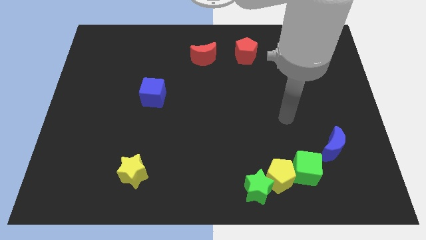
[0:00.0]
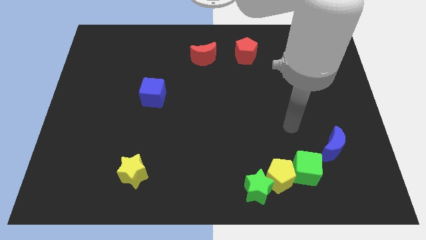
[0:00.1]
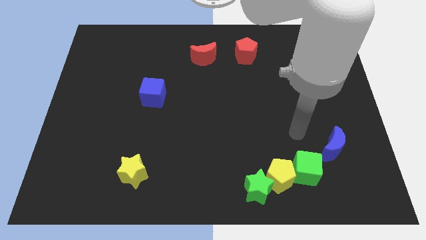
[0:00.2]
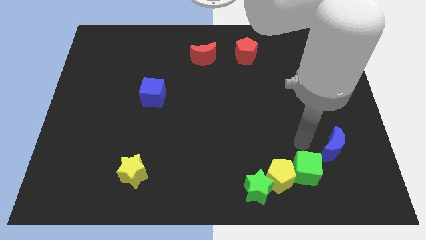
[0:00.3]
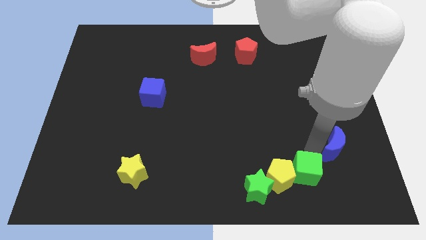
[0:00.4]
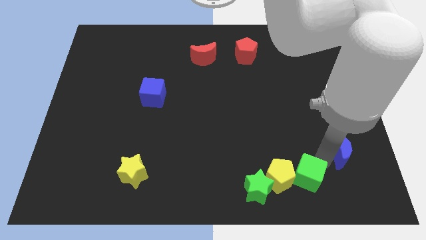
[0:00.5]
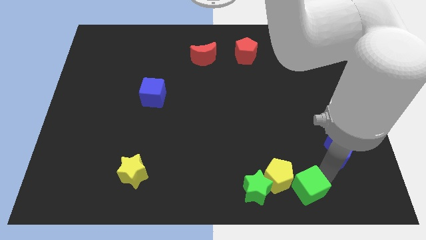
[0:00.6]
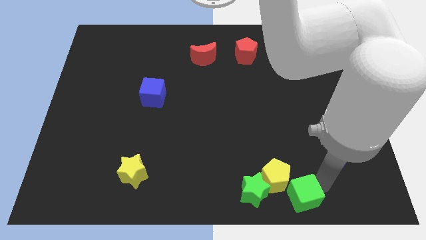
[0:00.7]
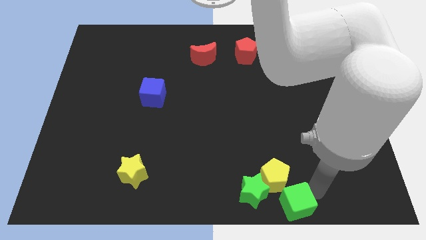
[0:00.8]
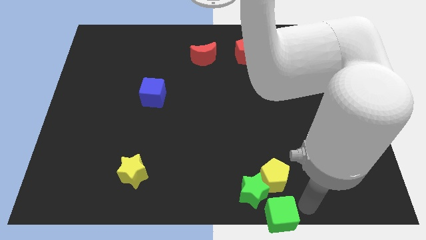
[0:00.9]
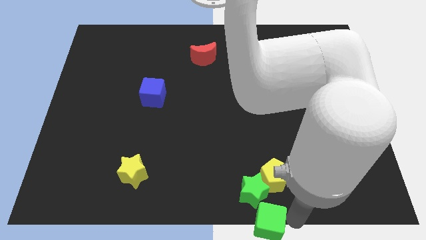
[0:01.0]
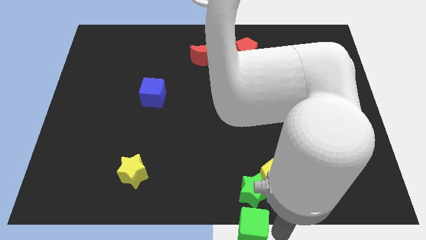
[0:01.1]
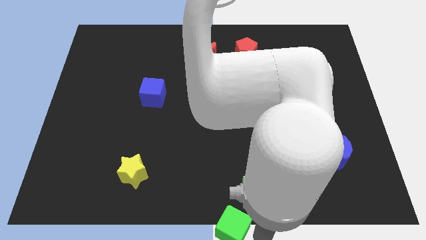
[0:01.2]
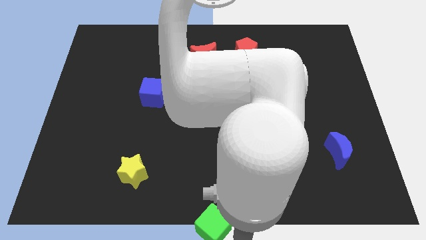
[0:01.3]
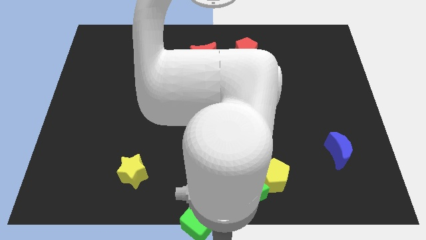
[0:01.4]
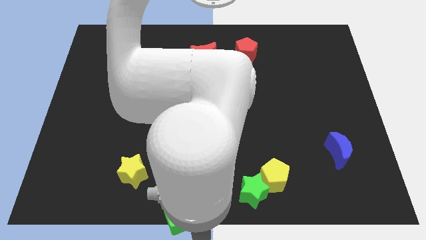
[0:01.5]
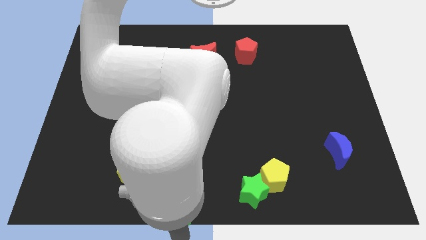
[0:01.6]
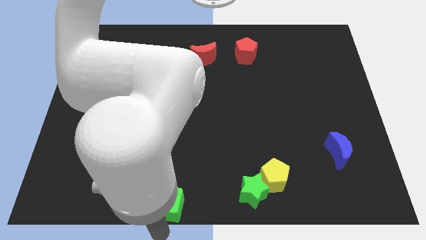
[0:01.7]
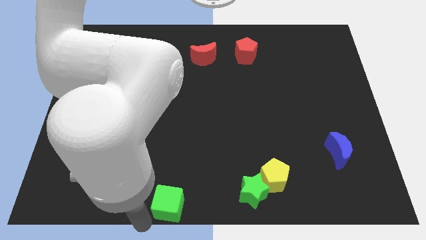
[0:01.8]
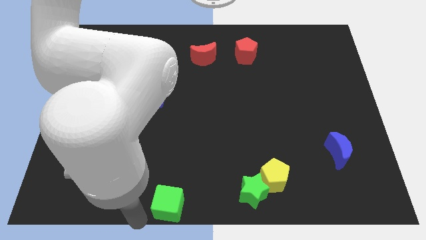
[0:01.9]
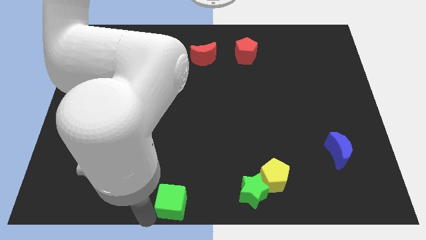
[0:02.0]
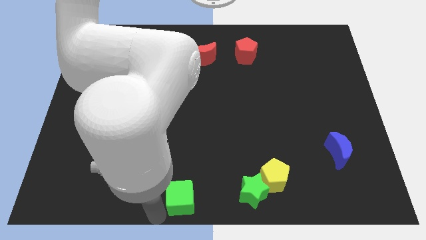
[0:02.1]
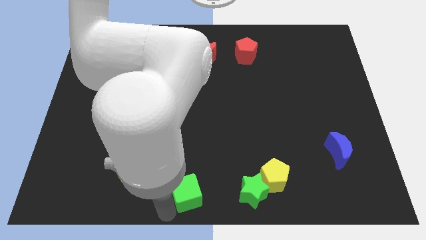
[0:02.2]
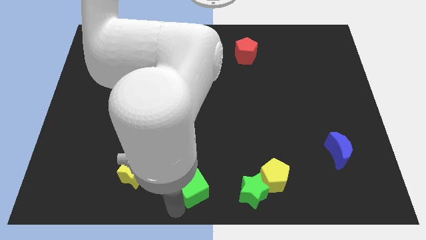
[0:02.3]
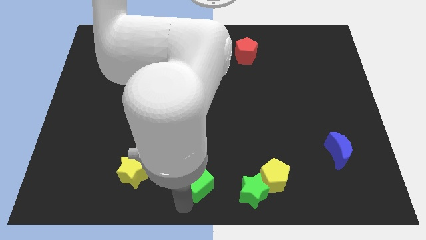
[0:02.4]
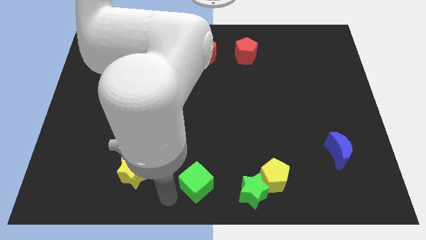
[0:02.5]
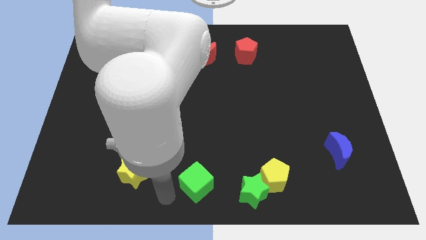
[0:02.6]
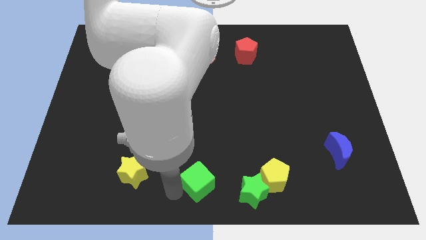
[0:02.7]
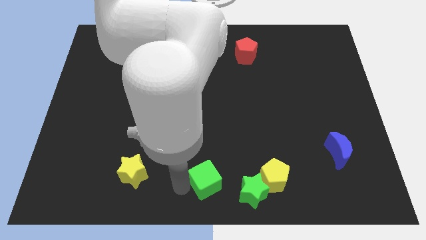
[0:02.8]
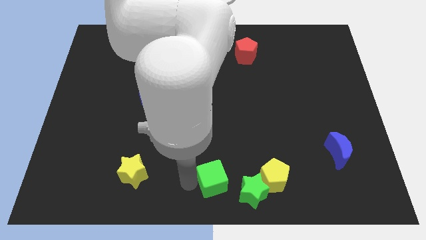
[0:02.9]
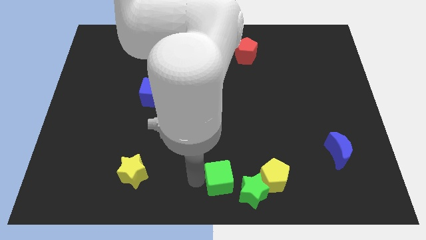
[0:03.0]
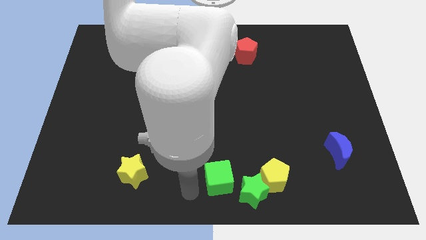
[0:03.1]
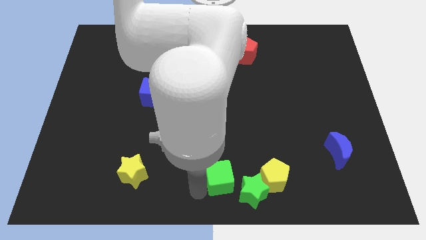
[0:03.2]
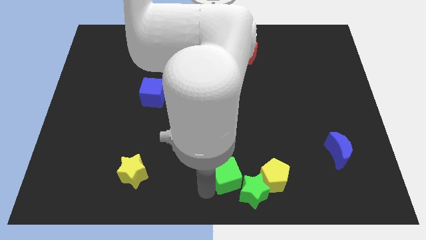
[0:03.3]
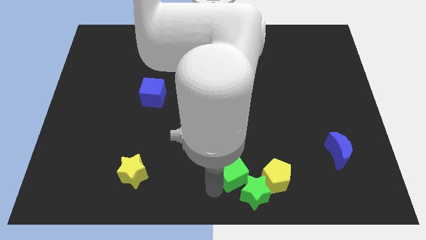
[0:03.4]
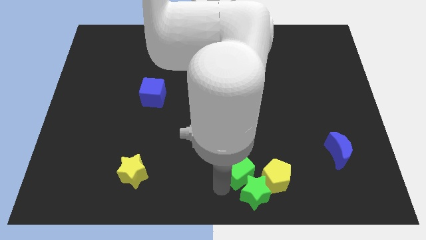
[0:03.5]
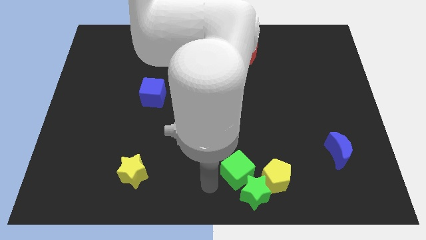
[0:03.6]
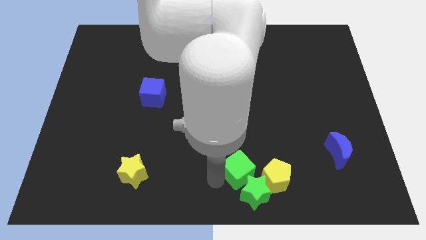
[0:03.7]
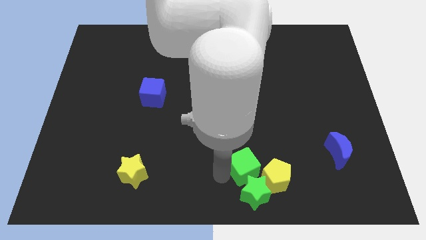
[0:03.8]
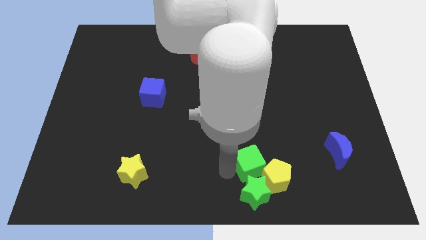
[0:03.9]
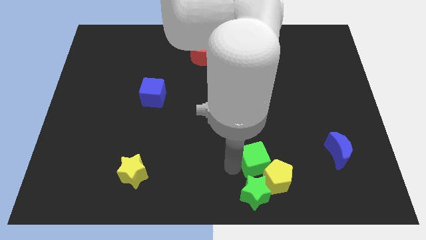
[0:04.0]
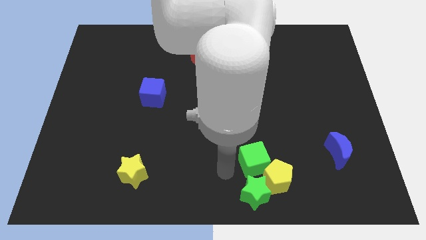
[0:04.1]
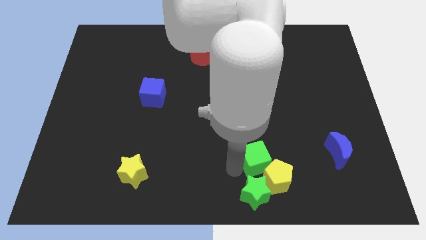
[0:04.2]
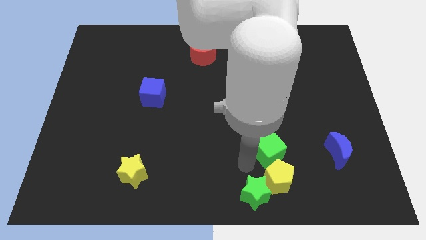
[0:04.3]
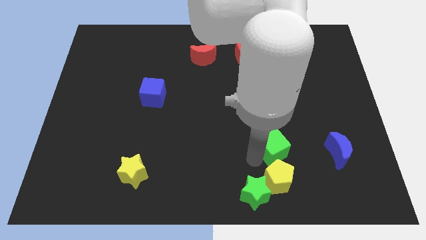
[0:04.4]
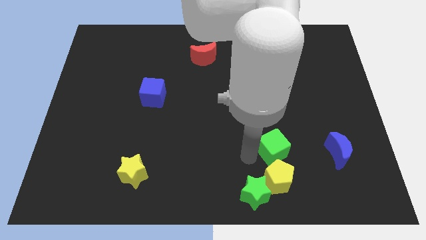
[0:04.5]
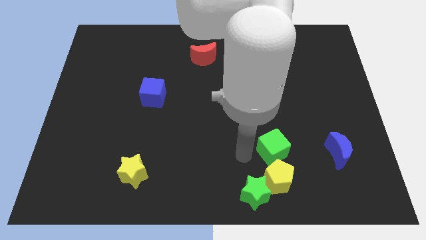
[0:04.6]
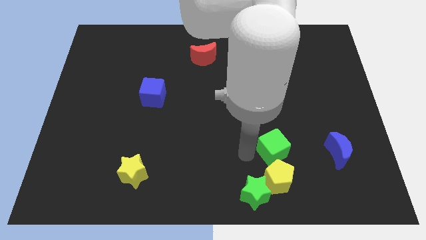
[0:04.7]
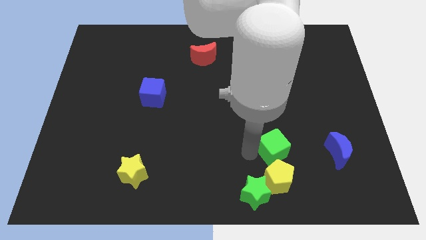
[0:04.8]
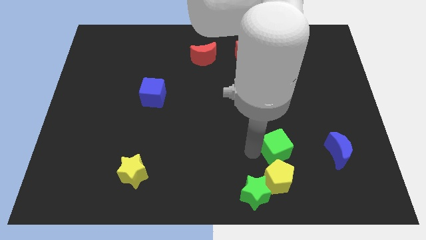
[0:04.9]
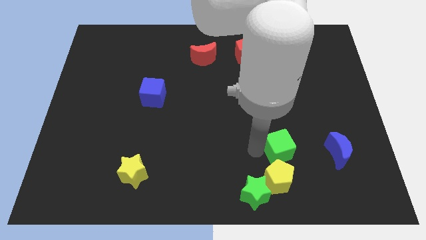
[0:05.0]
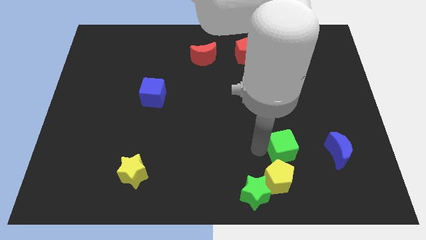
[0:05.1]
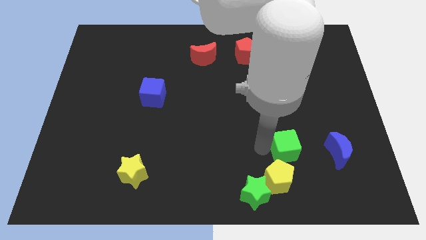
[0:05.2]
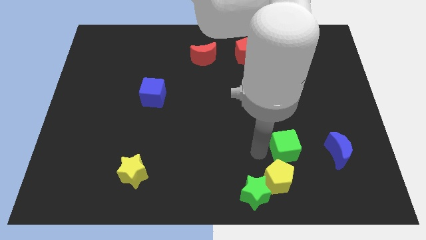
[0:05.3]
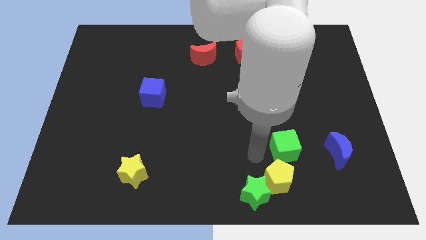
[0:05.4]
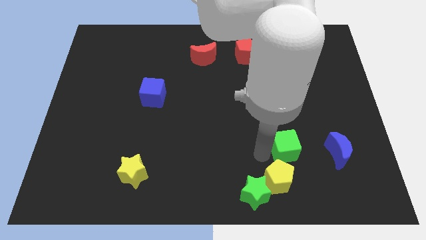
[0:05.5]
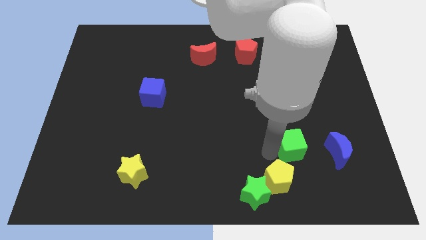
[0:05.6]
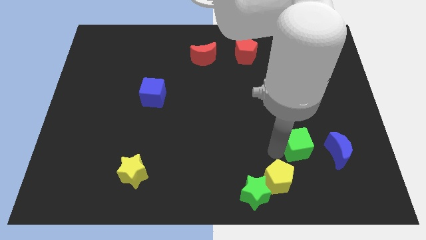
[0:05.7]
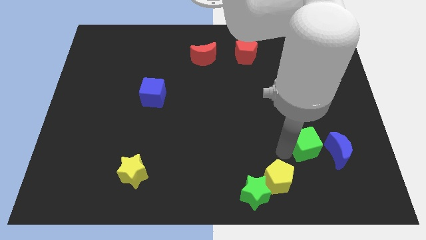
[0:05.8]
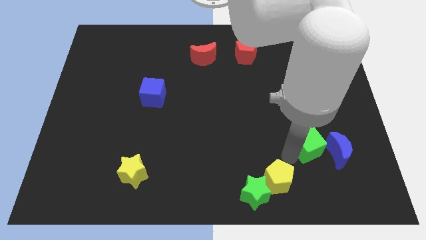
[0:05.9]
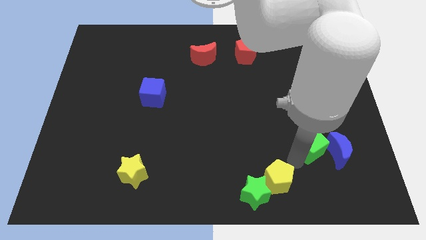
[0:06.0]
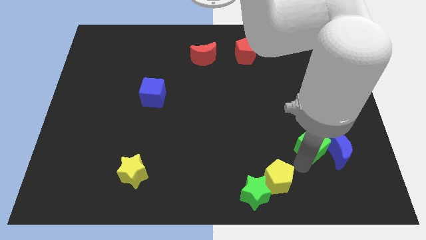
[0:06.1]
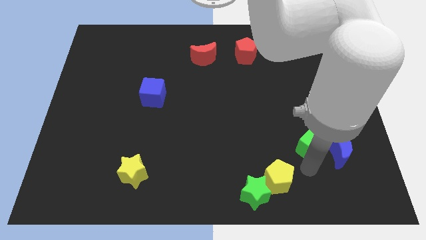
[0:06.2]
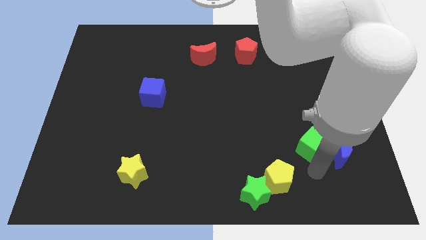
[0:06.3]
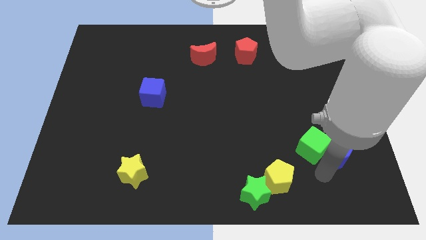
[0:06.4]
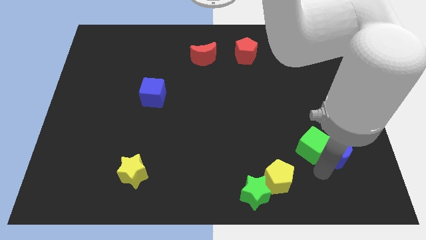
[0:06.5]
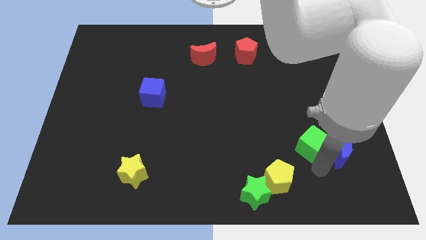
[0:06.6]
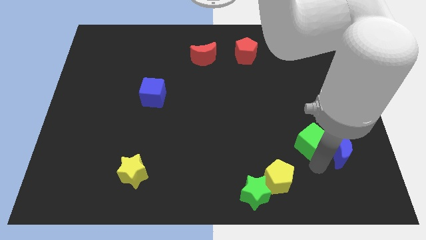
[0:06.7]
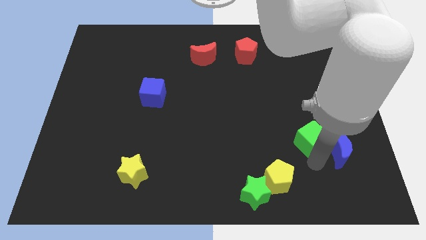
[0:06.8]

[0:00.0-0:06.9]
slide the green cube a bit upwards

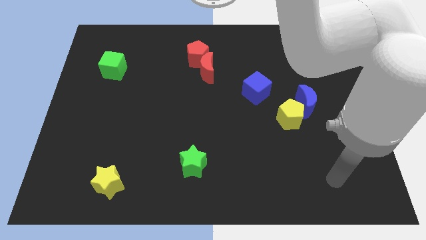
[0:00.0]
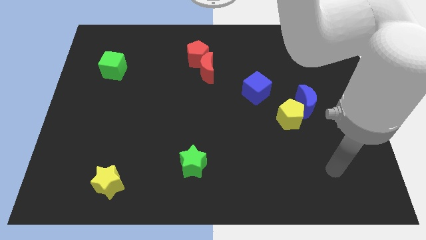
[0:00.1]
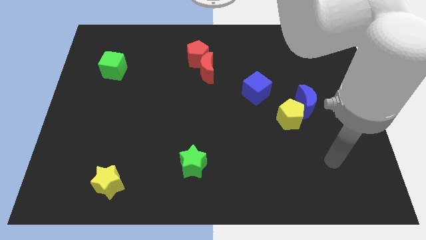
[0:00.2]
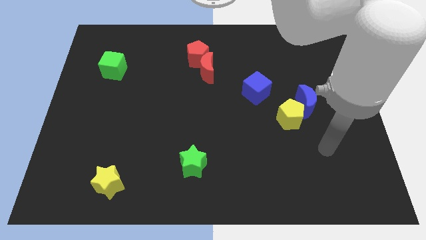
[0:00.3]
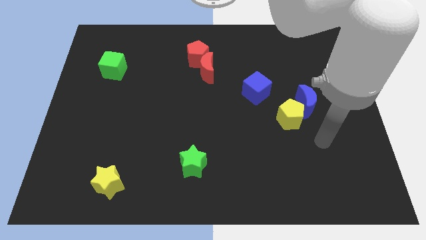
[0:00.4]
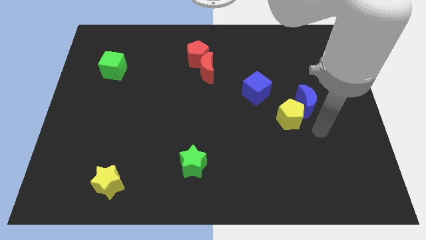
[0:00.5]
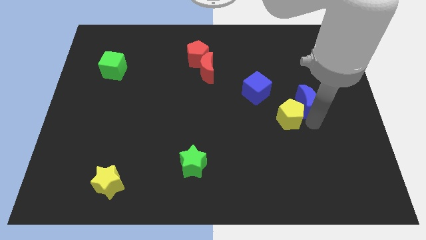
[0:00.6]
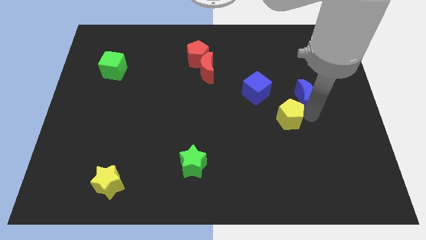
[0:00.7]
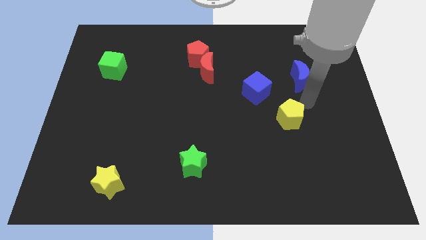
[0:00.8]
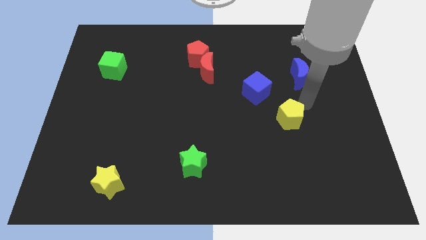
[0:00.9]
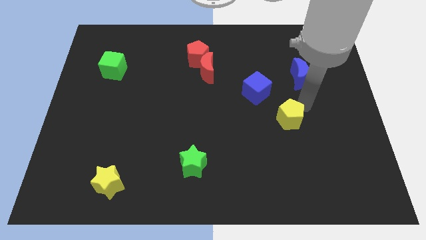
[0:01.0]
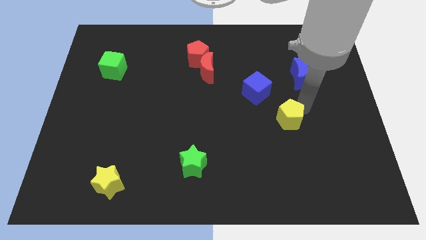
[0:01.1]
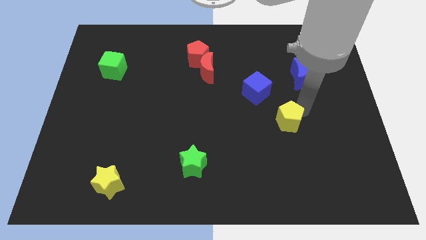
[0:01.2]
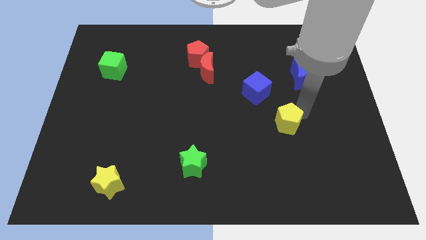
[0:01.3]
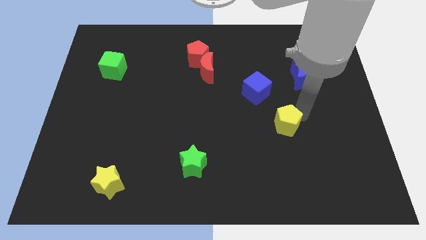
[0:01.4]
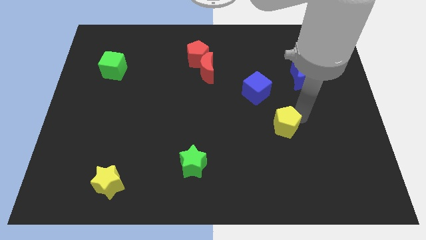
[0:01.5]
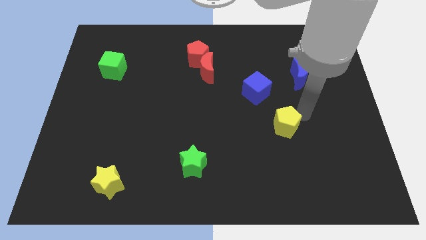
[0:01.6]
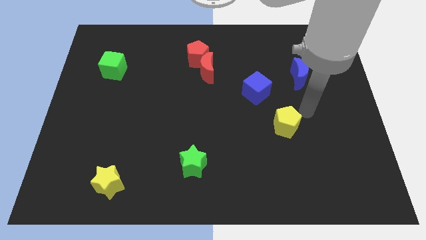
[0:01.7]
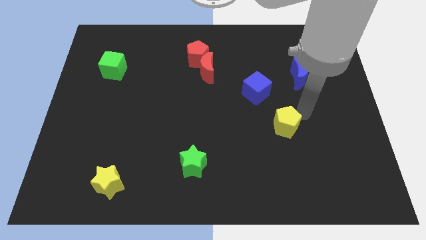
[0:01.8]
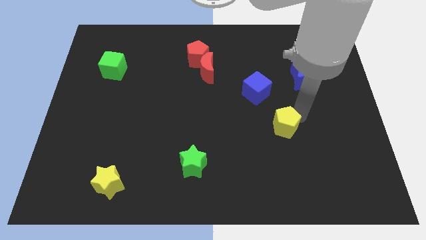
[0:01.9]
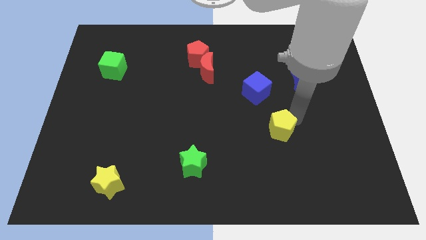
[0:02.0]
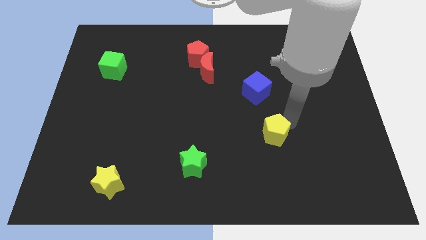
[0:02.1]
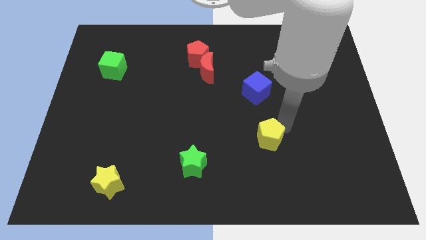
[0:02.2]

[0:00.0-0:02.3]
slide the yellow pentagon downwards and to the left diagonally a little bit
